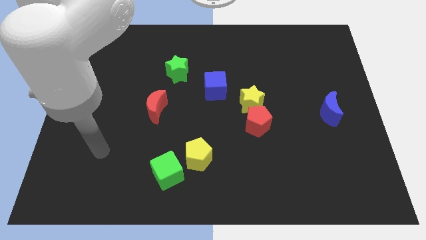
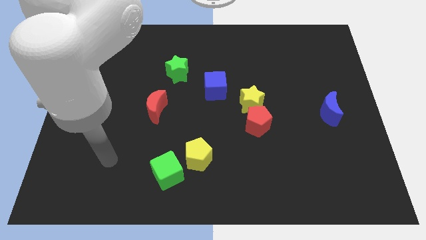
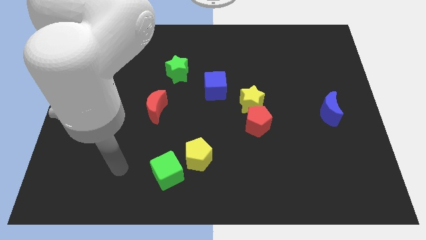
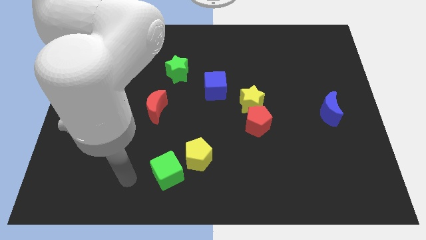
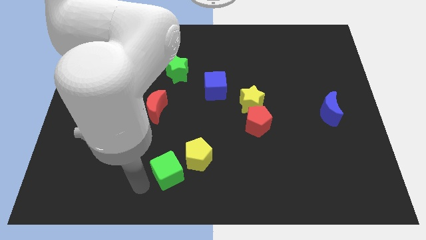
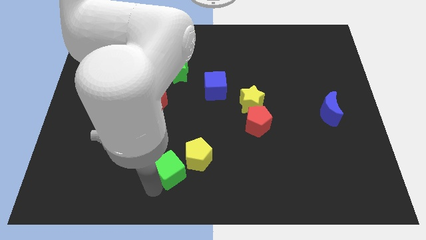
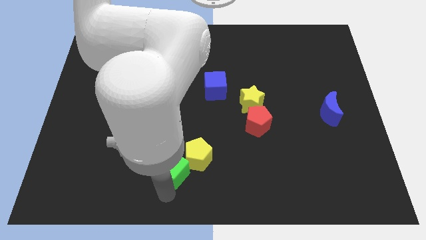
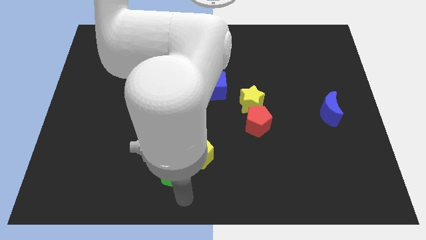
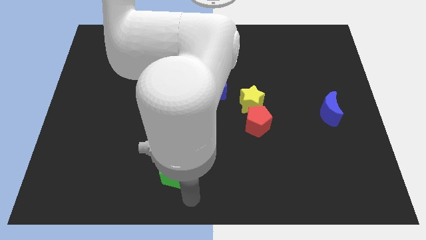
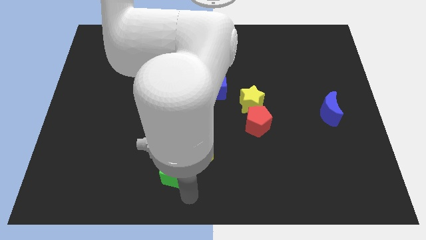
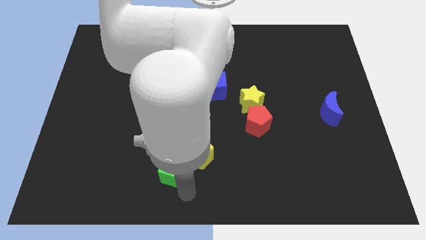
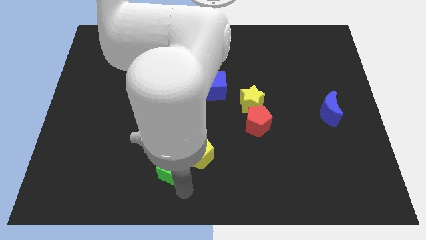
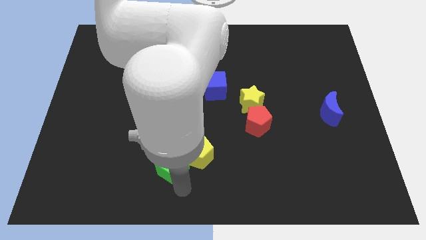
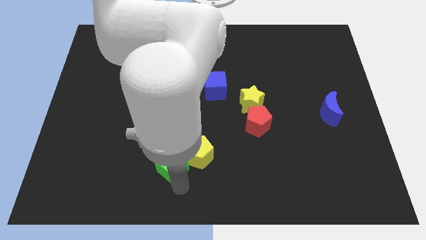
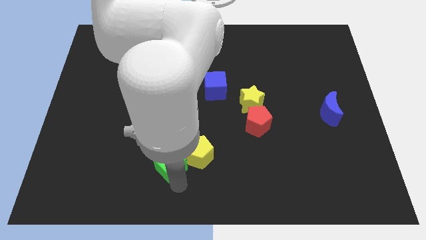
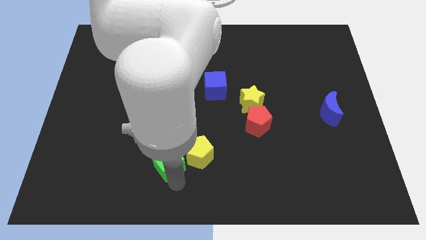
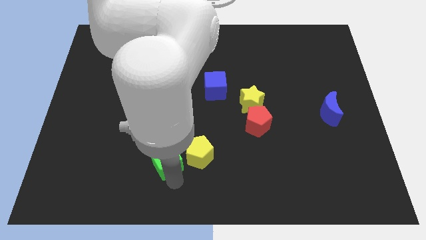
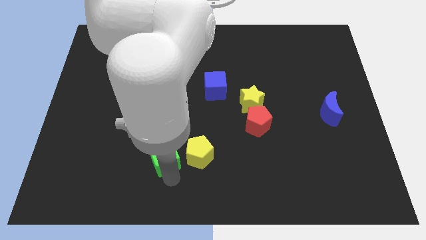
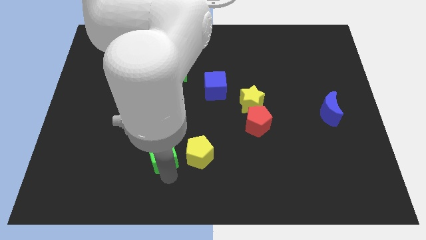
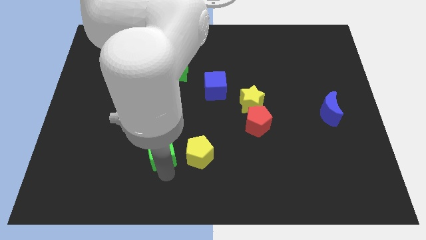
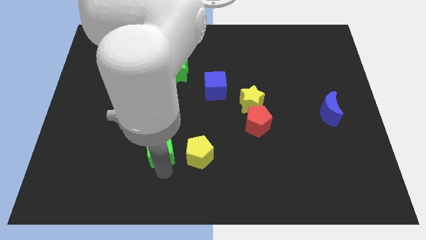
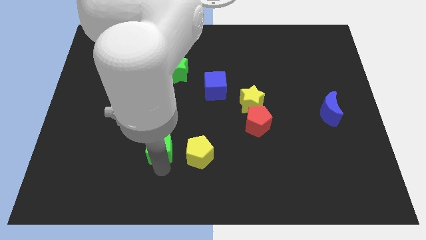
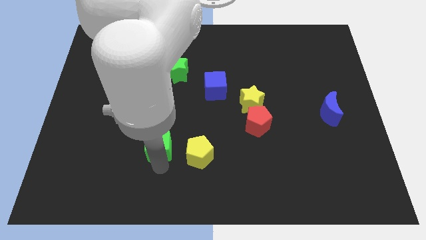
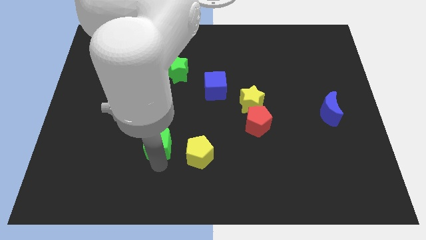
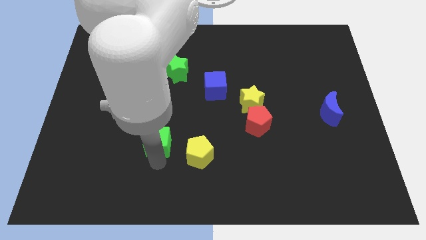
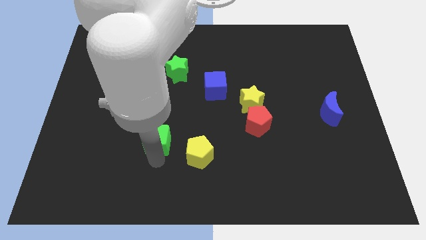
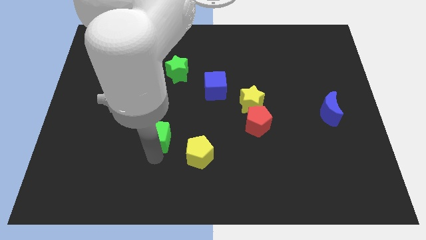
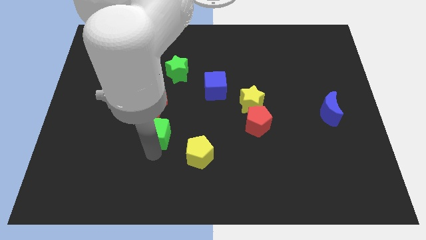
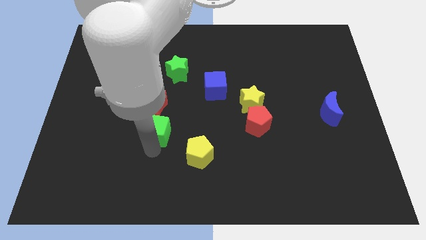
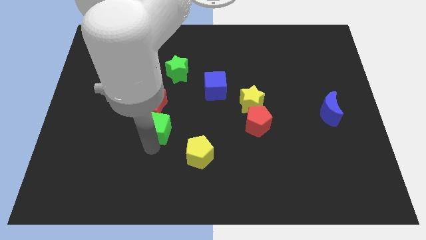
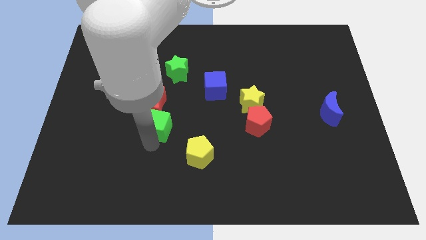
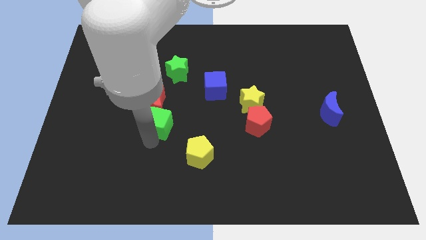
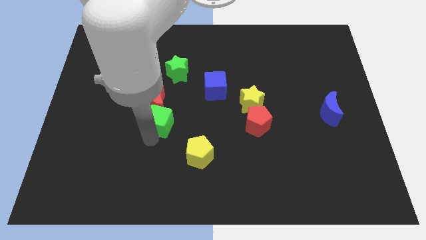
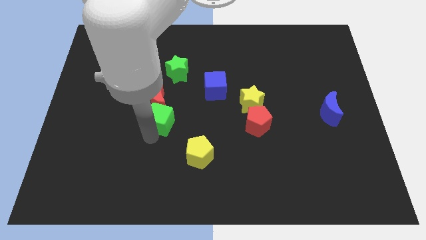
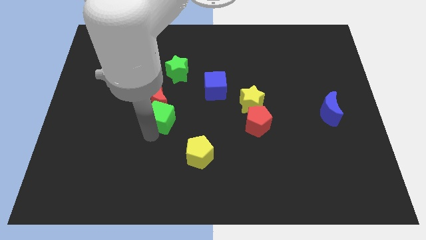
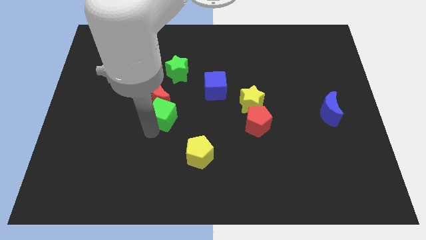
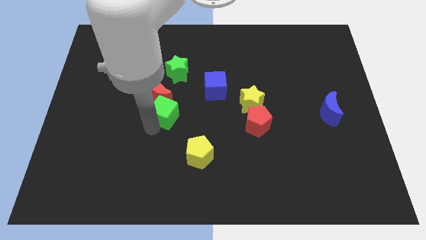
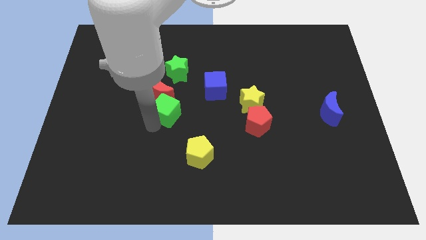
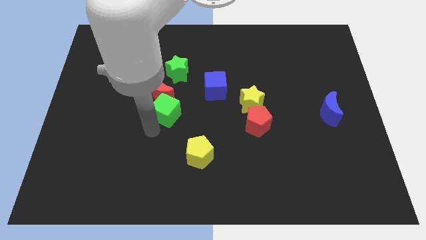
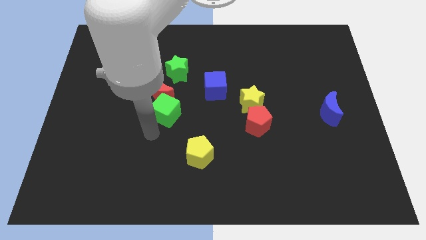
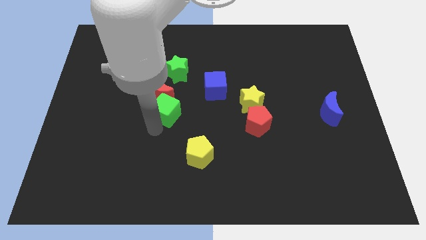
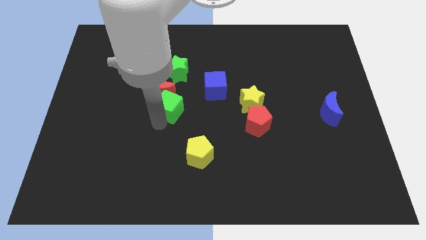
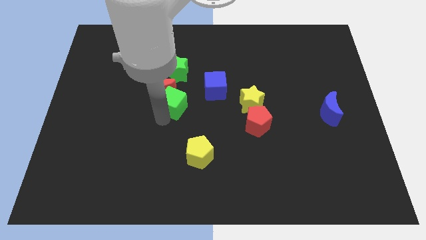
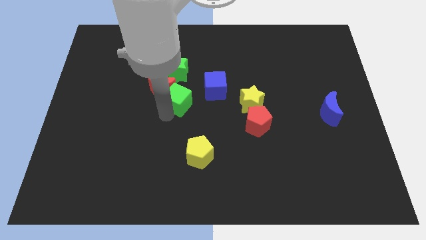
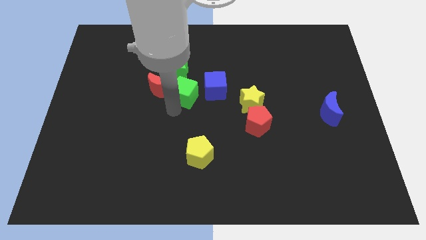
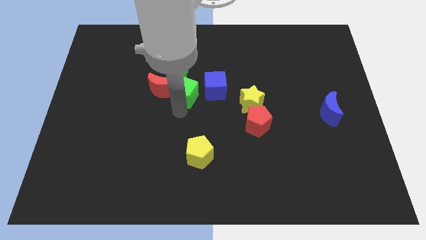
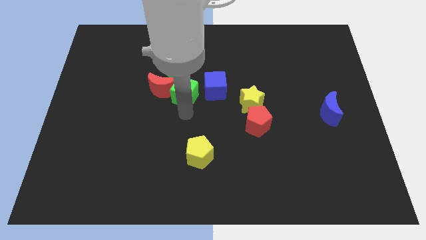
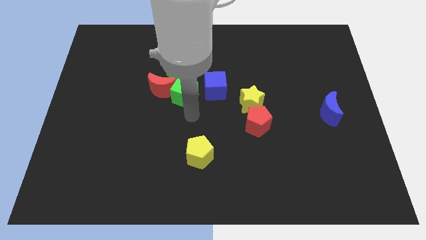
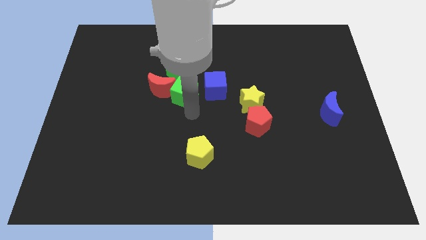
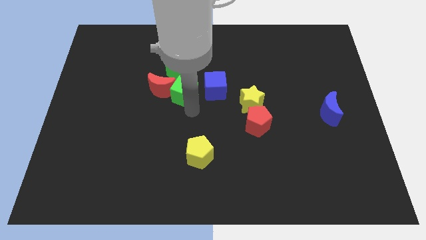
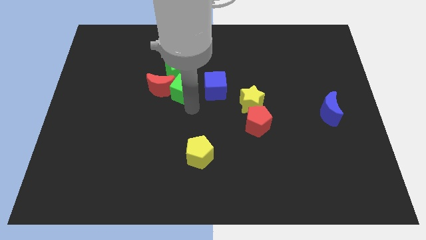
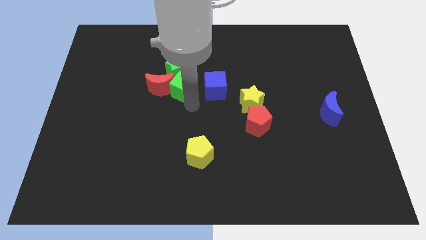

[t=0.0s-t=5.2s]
slide the green cube close to the green star

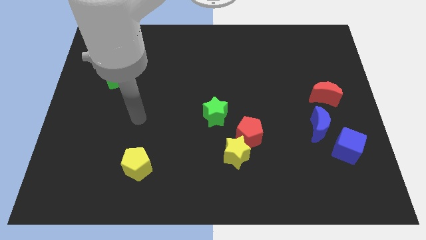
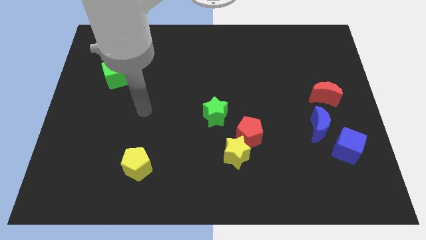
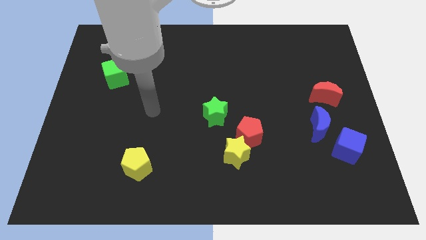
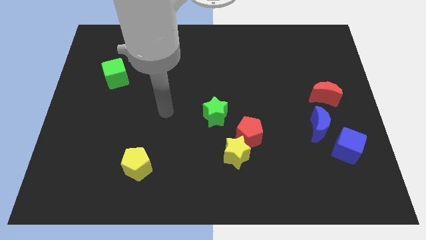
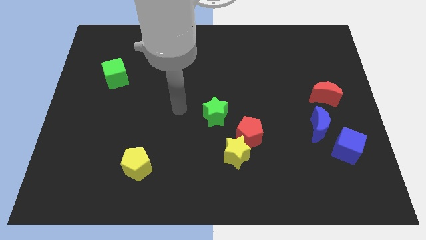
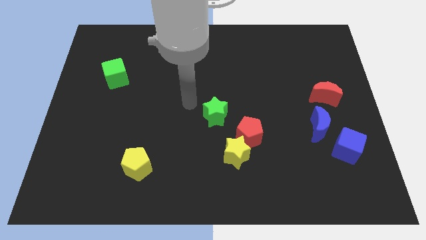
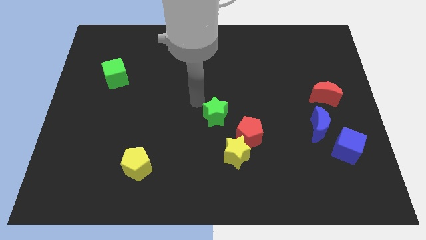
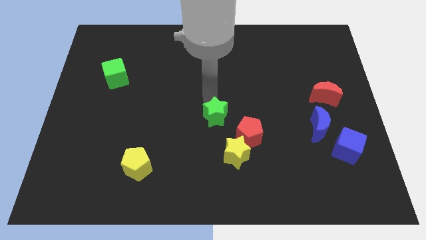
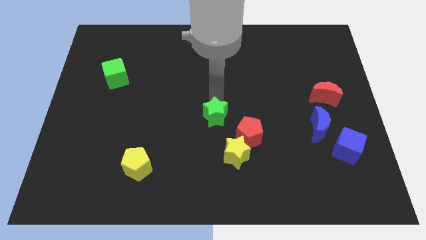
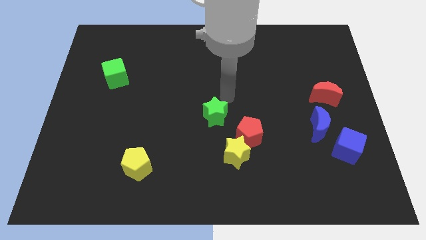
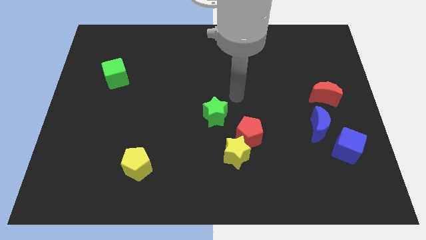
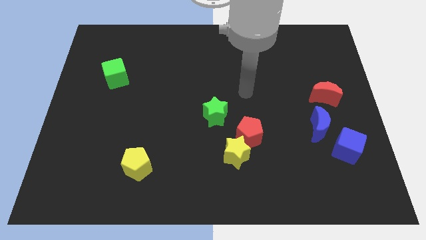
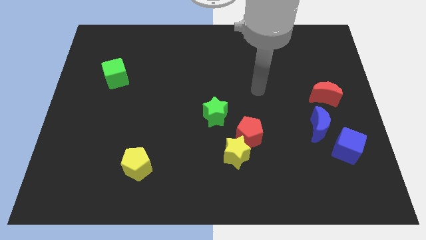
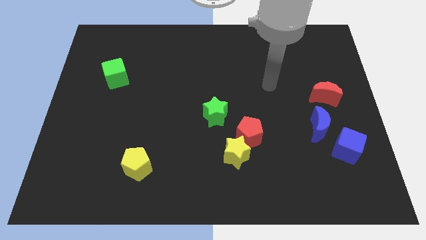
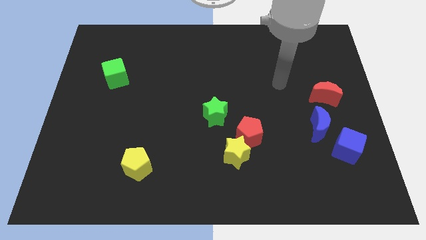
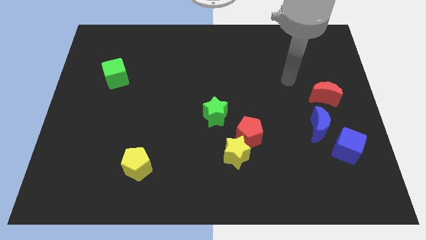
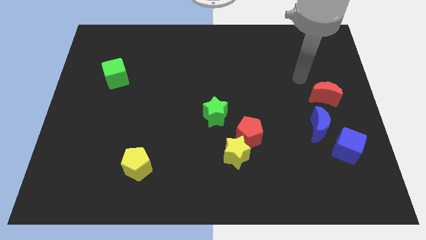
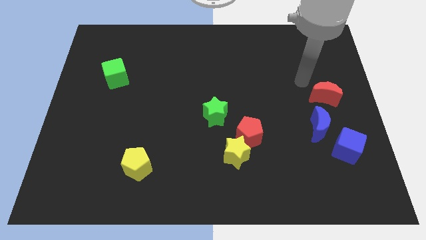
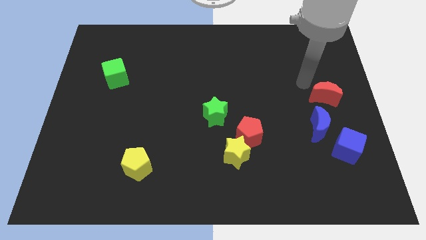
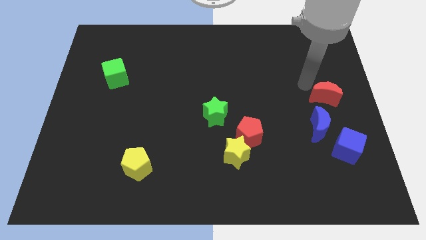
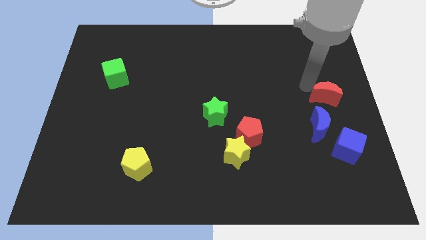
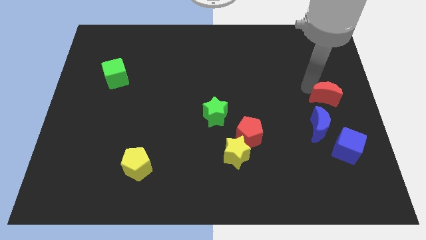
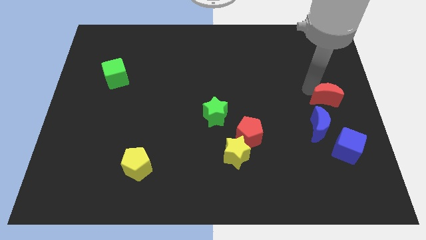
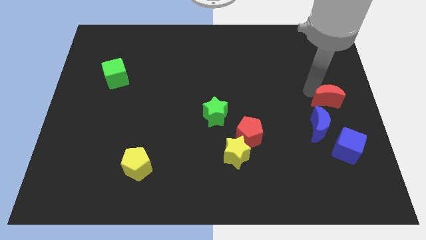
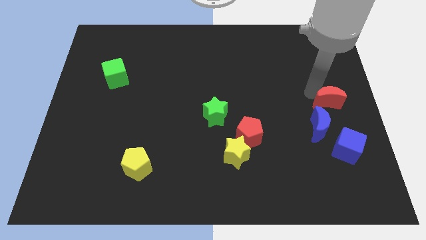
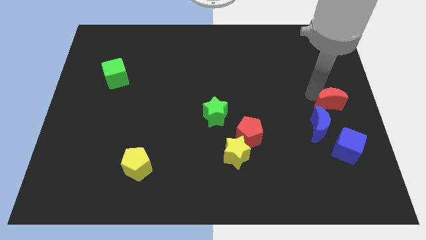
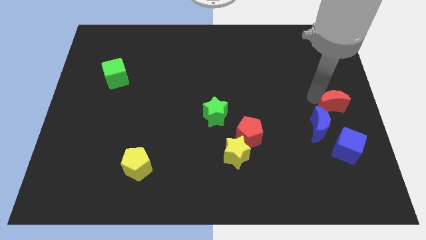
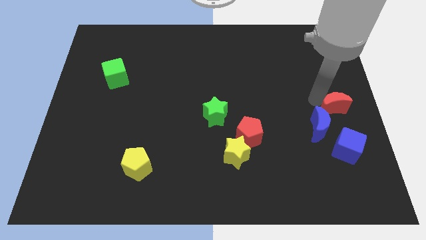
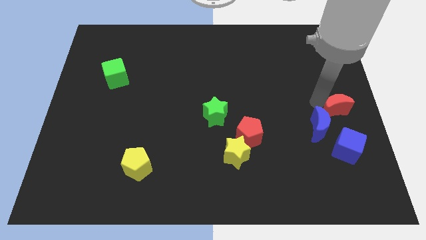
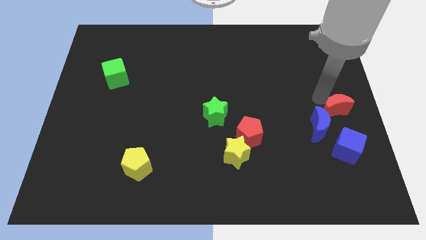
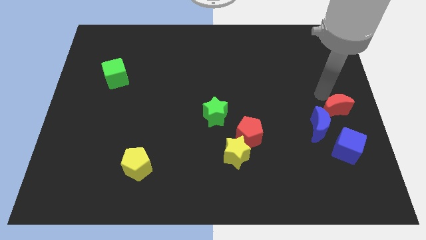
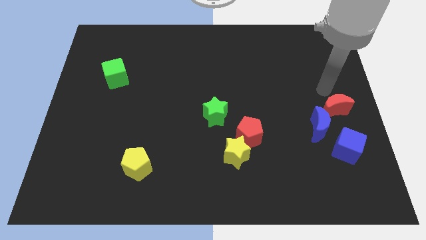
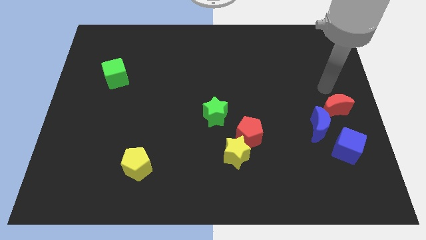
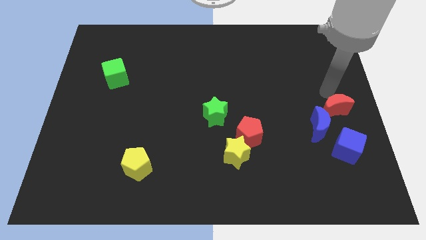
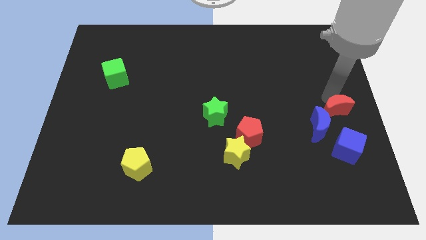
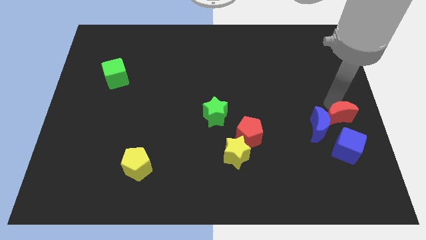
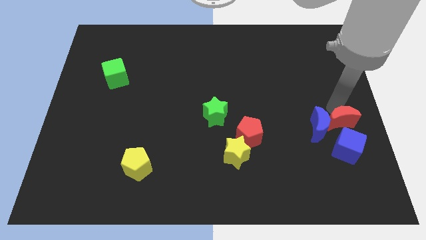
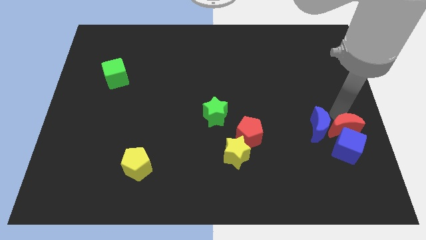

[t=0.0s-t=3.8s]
put the red moon towards the blue cube
